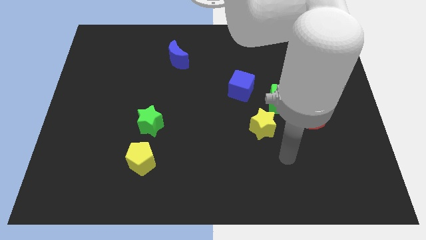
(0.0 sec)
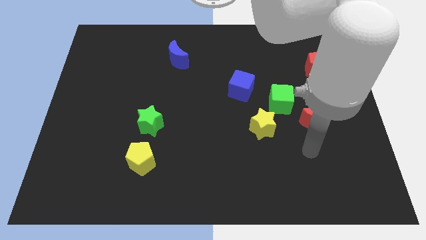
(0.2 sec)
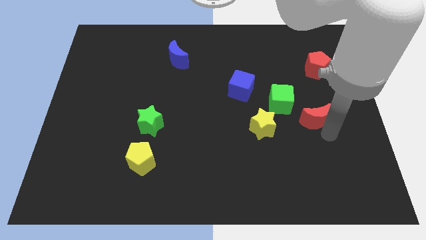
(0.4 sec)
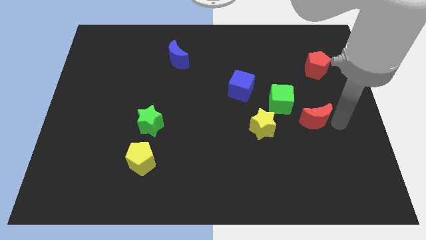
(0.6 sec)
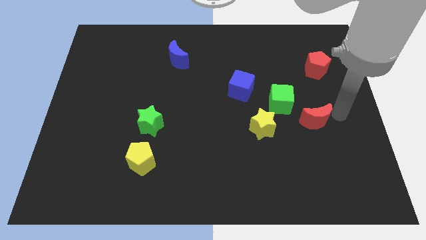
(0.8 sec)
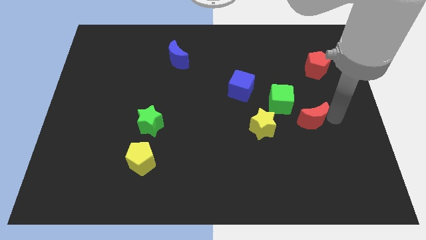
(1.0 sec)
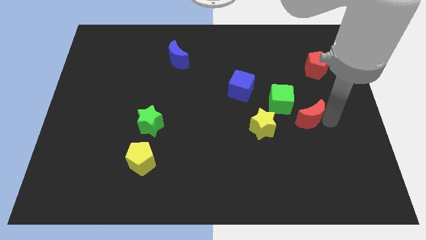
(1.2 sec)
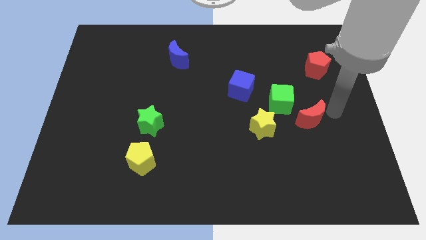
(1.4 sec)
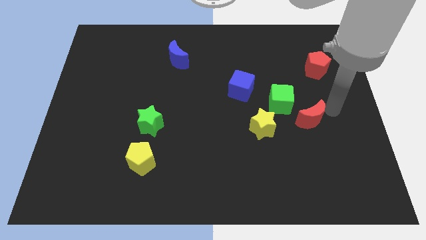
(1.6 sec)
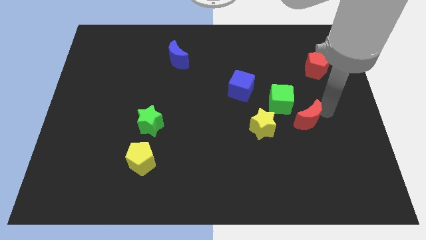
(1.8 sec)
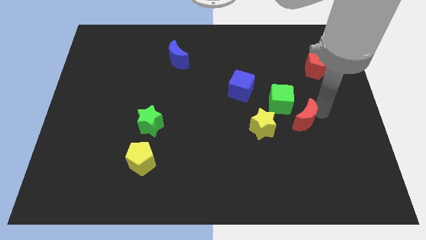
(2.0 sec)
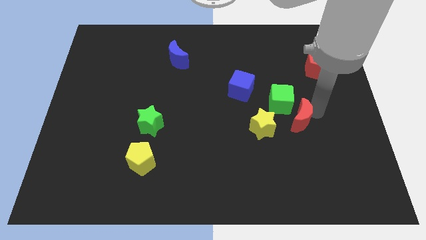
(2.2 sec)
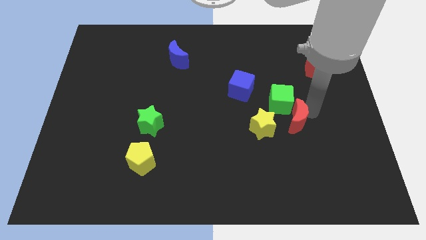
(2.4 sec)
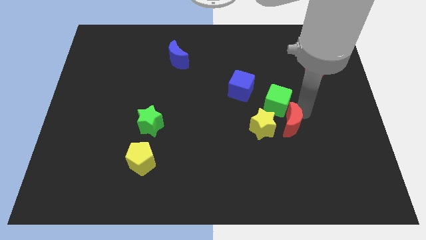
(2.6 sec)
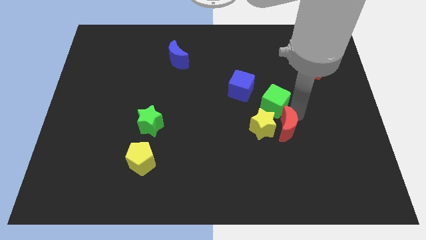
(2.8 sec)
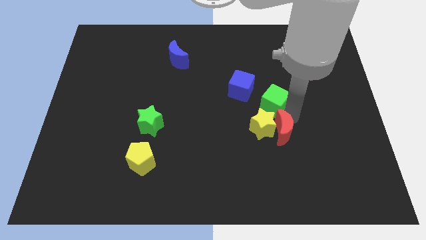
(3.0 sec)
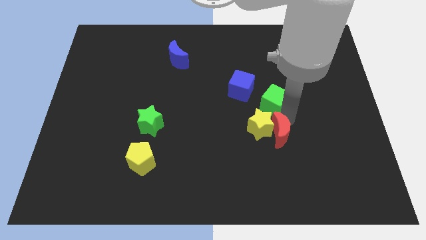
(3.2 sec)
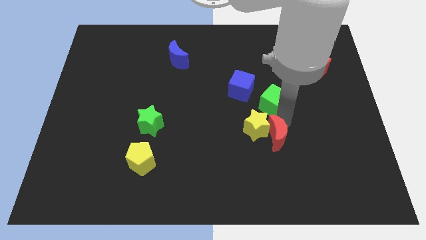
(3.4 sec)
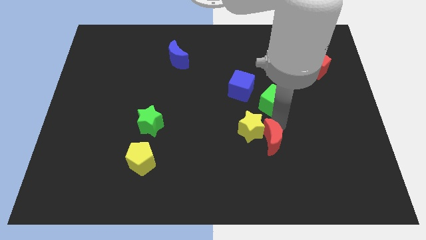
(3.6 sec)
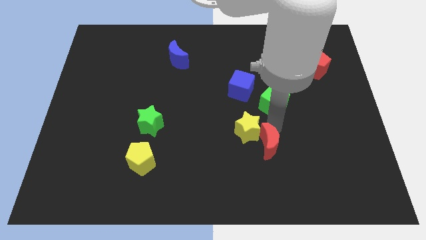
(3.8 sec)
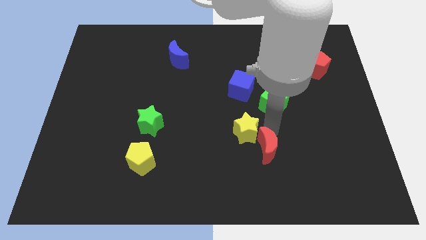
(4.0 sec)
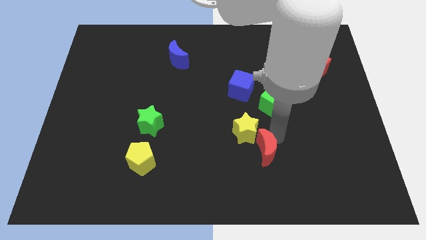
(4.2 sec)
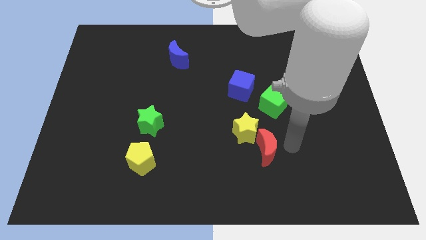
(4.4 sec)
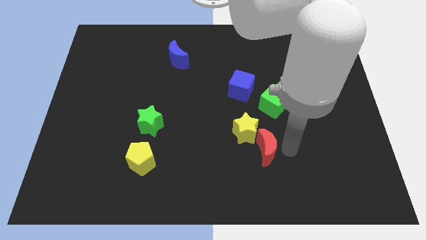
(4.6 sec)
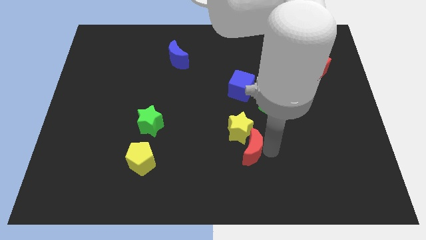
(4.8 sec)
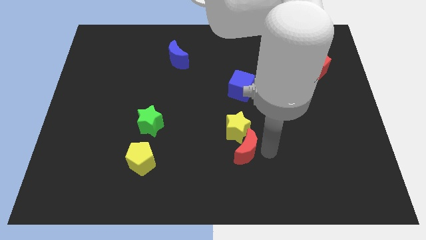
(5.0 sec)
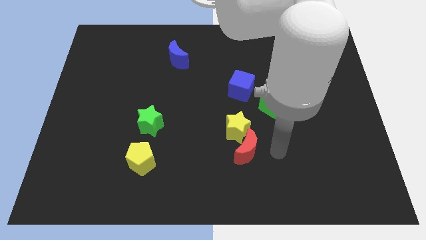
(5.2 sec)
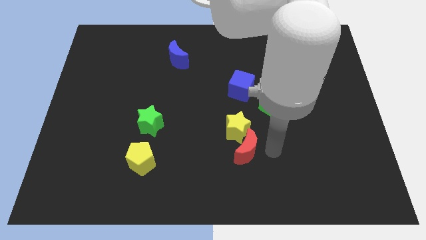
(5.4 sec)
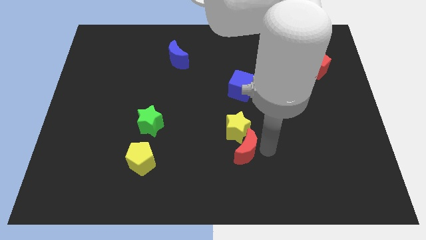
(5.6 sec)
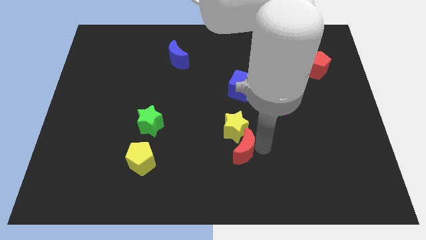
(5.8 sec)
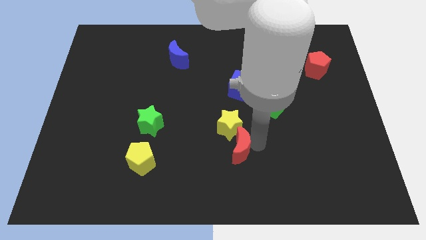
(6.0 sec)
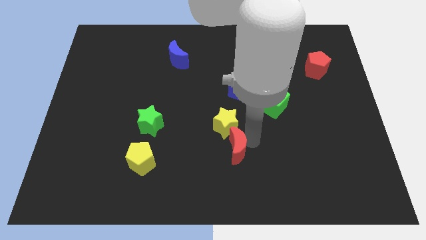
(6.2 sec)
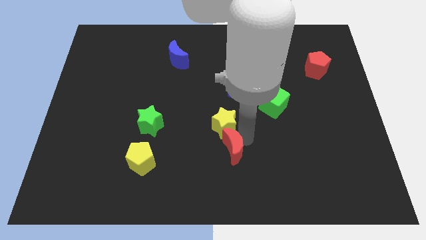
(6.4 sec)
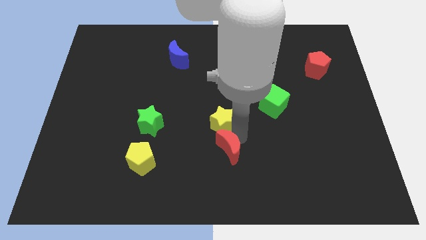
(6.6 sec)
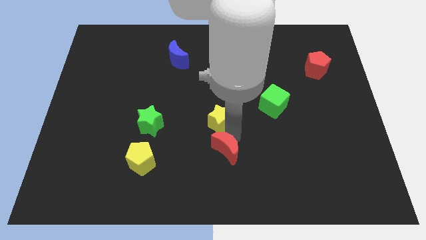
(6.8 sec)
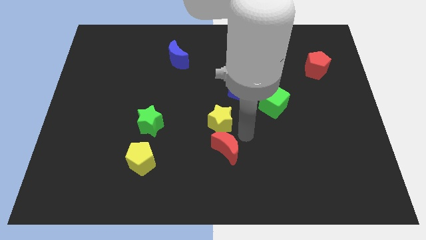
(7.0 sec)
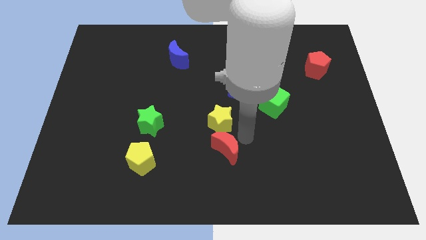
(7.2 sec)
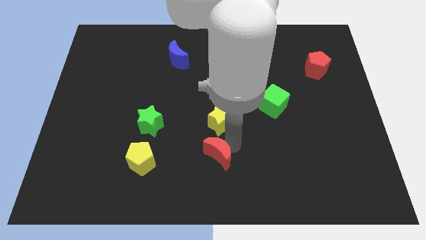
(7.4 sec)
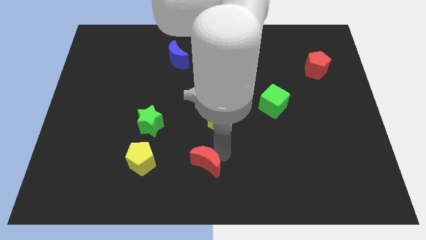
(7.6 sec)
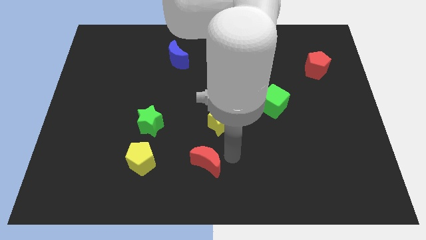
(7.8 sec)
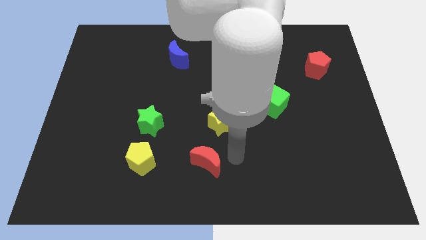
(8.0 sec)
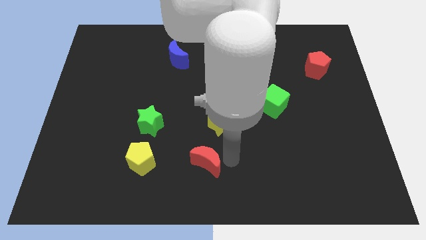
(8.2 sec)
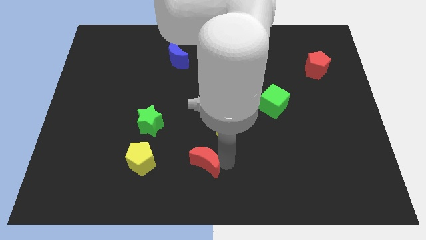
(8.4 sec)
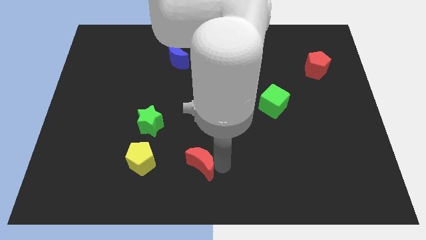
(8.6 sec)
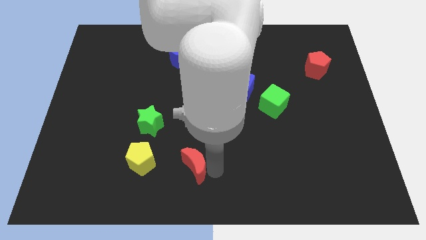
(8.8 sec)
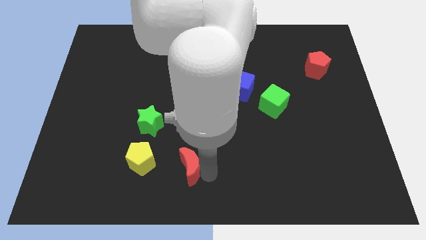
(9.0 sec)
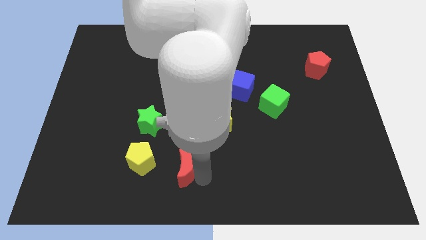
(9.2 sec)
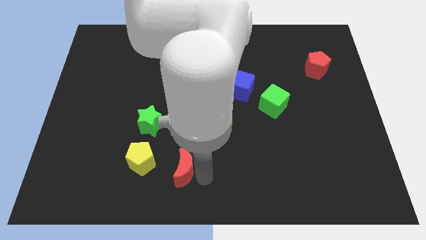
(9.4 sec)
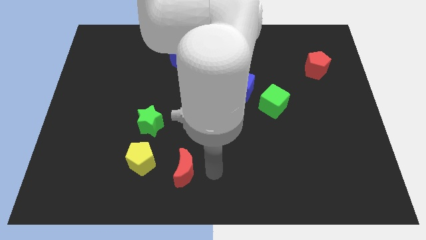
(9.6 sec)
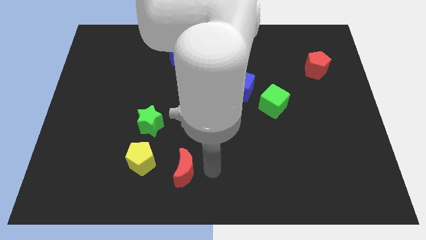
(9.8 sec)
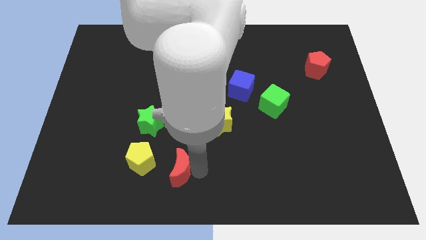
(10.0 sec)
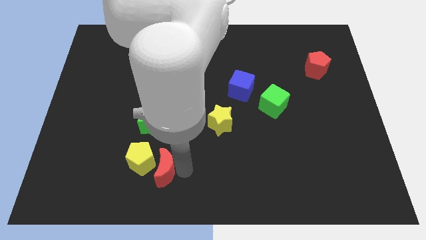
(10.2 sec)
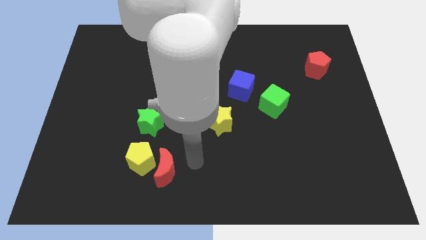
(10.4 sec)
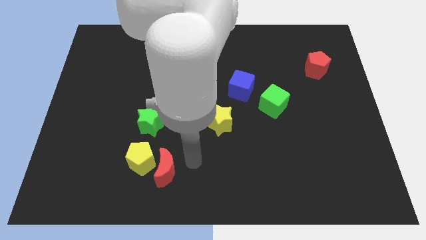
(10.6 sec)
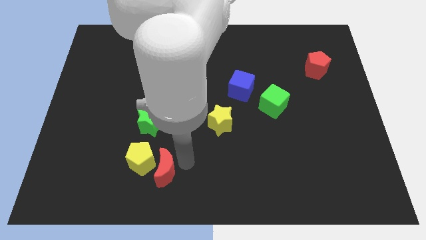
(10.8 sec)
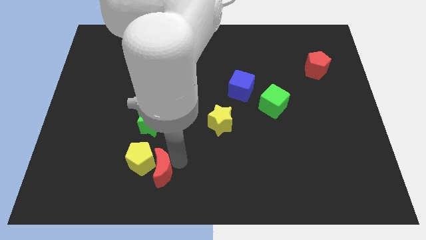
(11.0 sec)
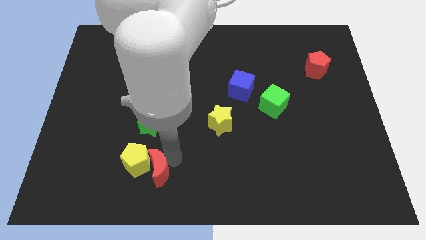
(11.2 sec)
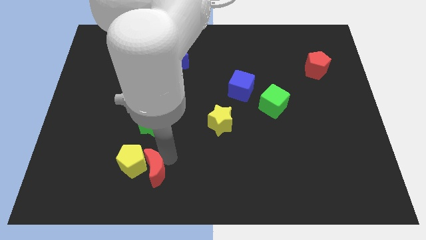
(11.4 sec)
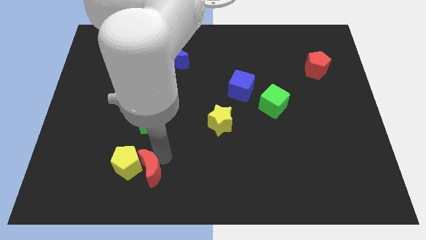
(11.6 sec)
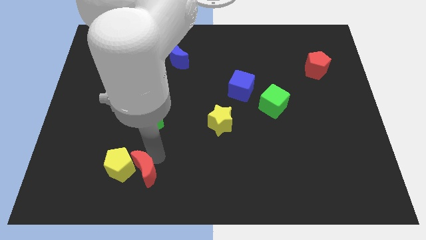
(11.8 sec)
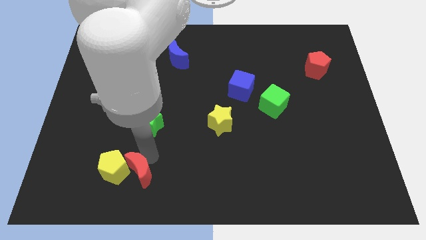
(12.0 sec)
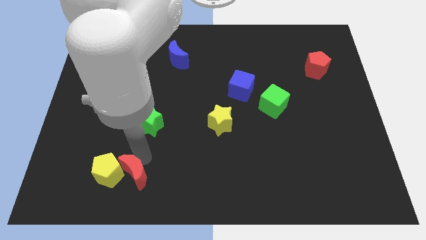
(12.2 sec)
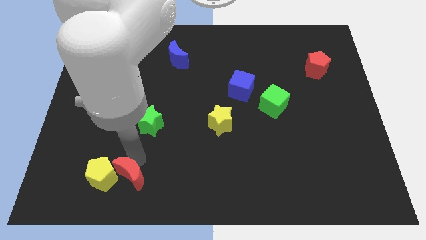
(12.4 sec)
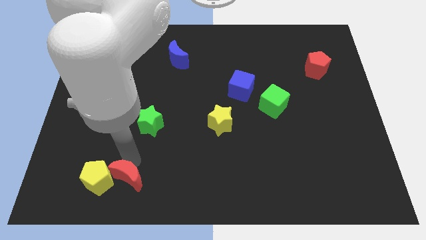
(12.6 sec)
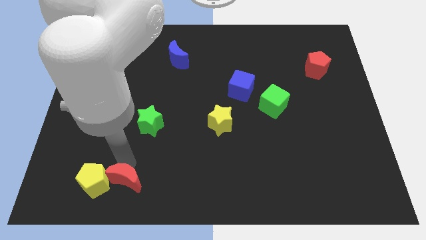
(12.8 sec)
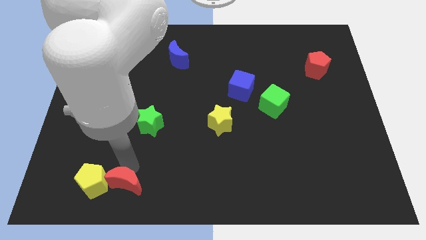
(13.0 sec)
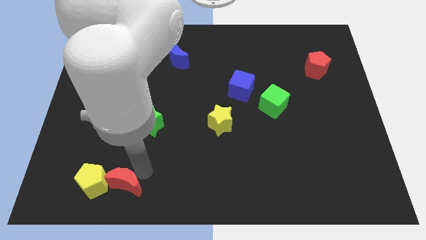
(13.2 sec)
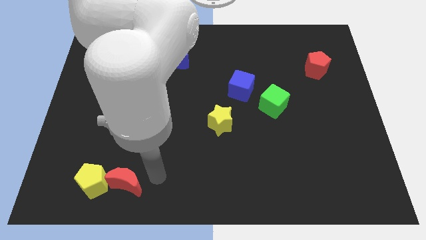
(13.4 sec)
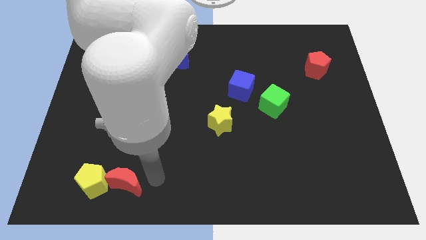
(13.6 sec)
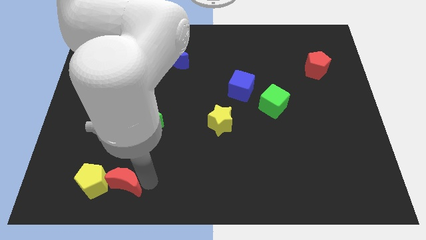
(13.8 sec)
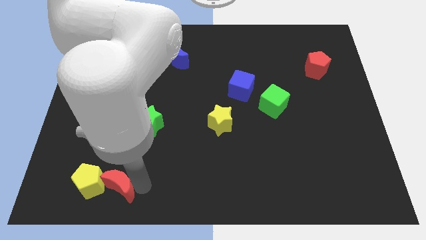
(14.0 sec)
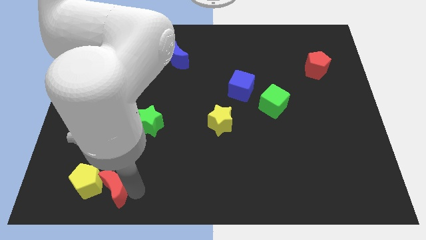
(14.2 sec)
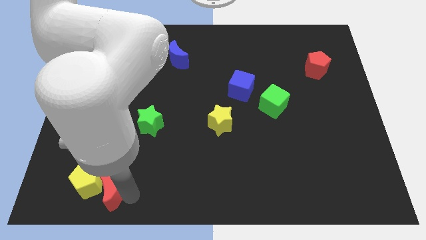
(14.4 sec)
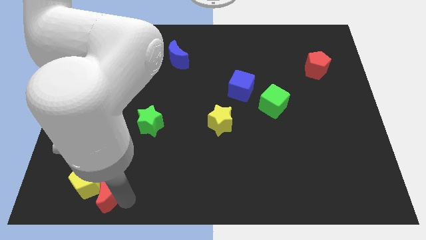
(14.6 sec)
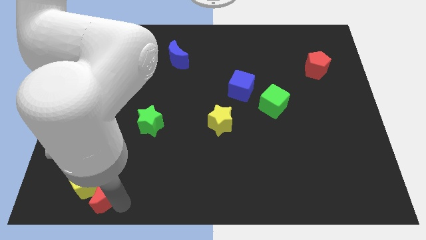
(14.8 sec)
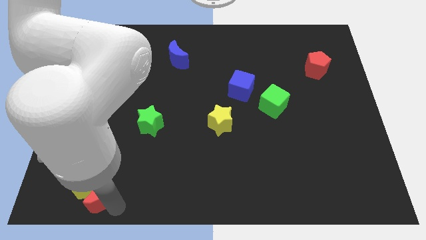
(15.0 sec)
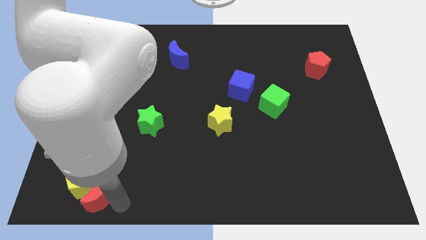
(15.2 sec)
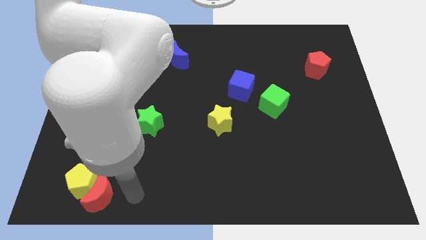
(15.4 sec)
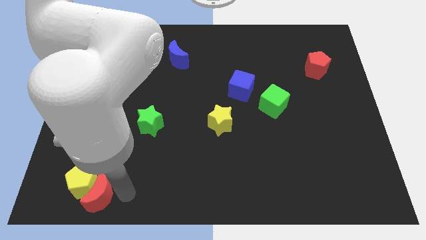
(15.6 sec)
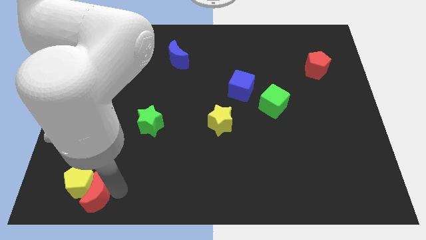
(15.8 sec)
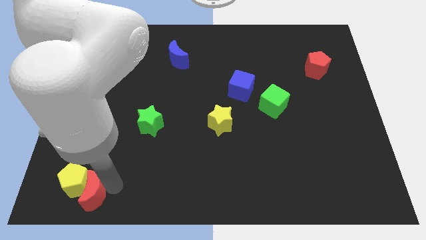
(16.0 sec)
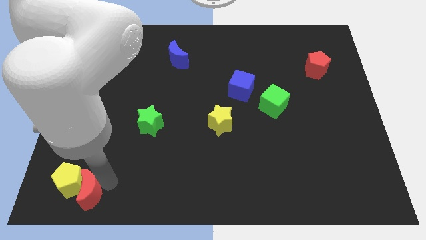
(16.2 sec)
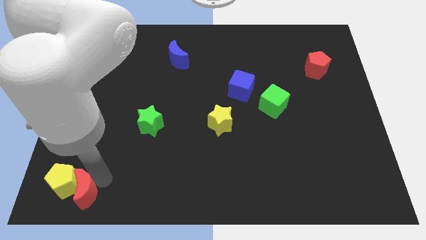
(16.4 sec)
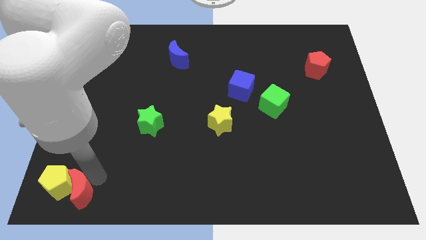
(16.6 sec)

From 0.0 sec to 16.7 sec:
put the red moon to the bottom left
